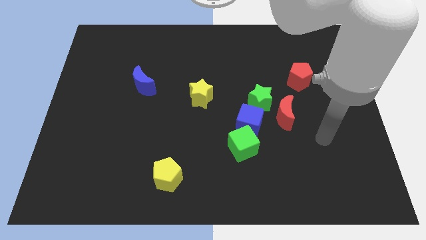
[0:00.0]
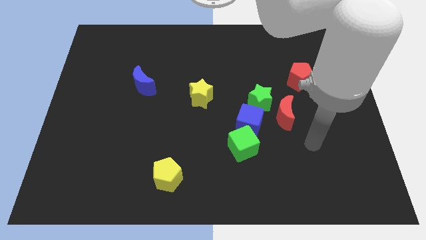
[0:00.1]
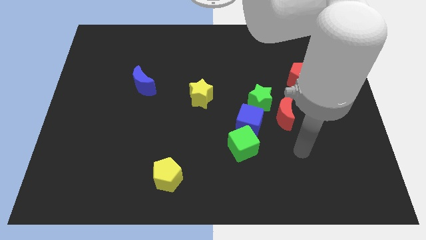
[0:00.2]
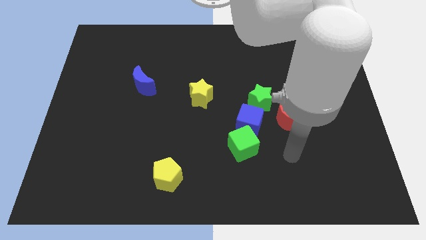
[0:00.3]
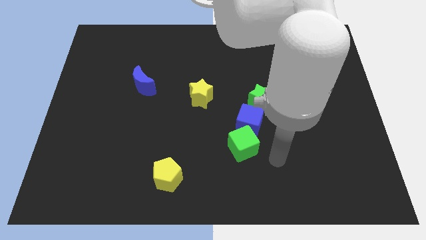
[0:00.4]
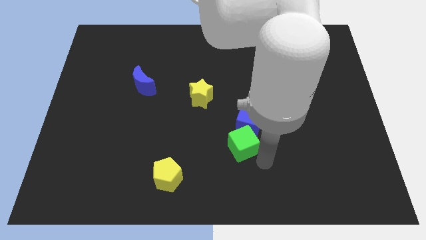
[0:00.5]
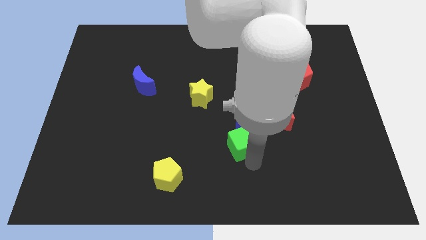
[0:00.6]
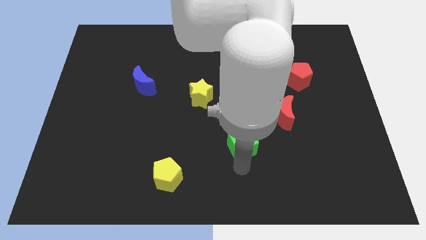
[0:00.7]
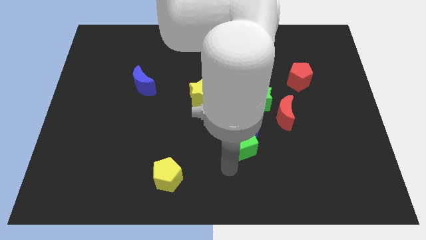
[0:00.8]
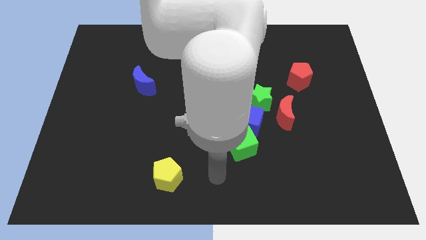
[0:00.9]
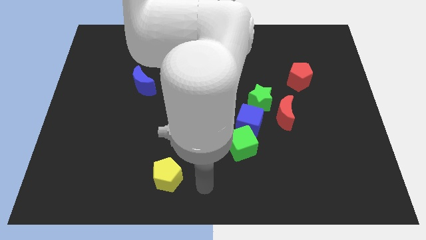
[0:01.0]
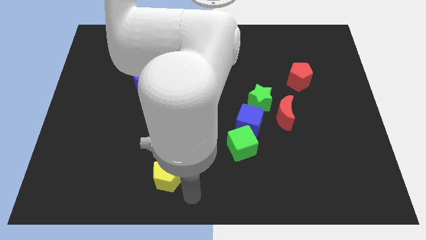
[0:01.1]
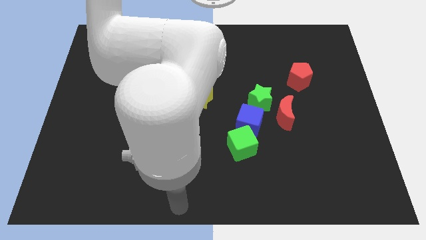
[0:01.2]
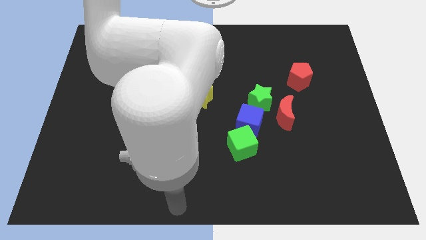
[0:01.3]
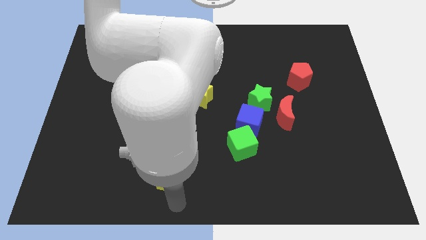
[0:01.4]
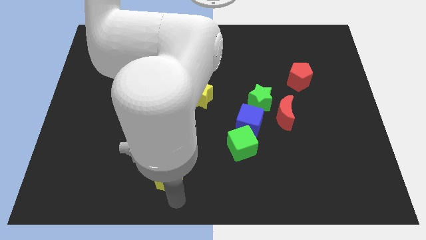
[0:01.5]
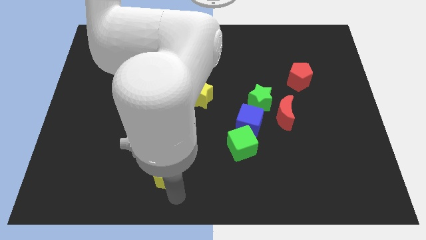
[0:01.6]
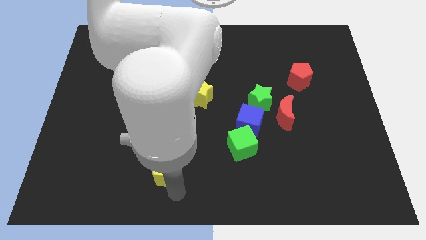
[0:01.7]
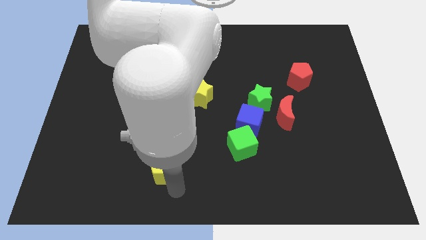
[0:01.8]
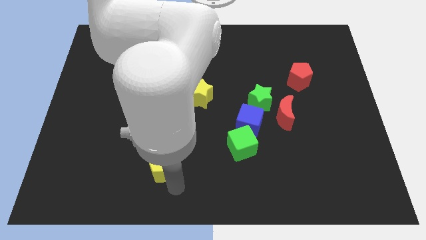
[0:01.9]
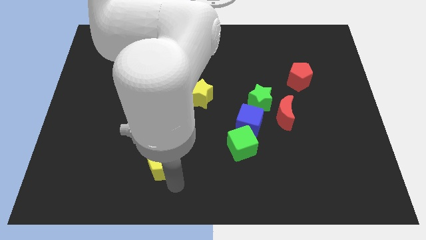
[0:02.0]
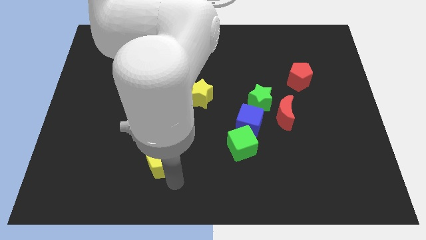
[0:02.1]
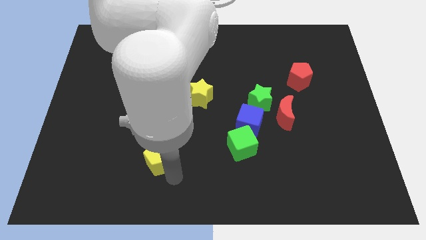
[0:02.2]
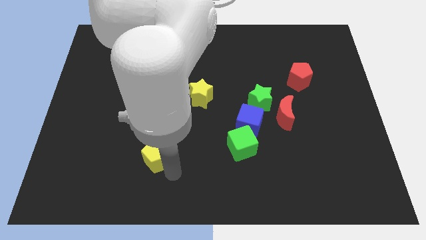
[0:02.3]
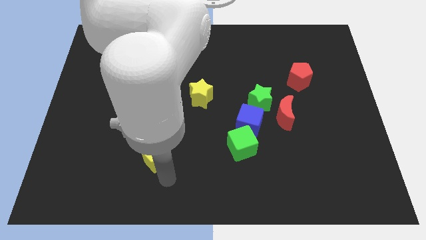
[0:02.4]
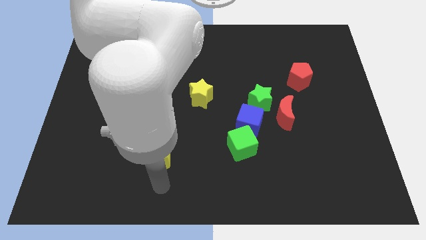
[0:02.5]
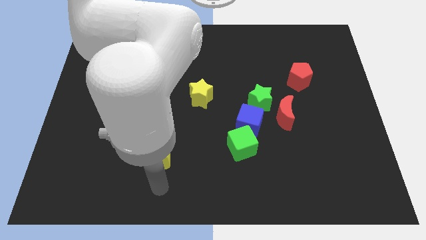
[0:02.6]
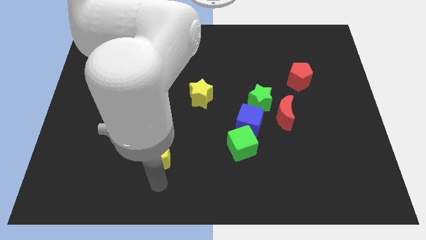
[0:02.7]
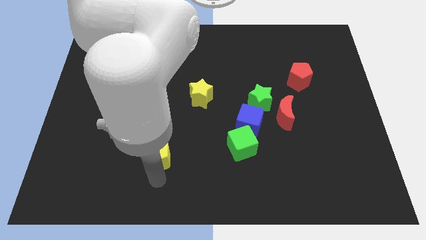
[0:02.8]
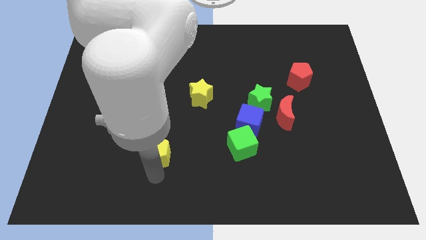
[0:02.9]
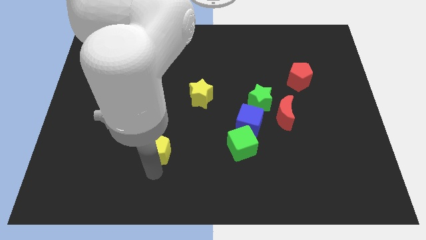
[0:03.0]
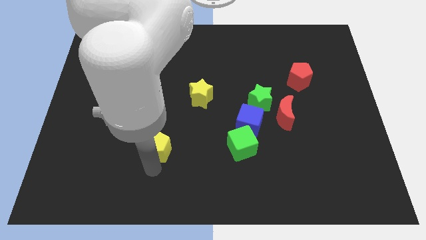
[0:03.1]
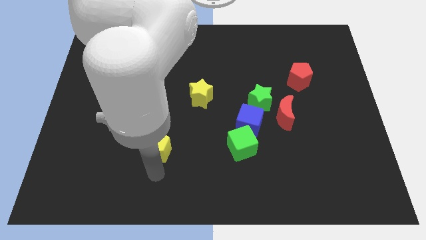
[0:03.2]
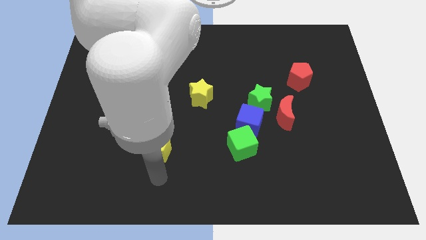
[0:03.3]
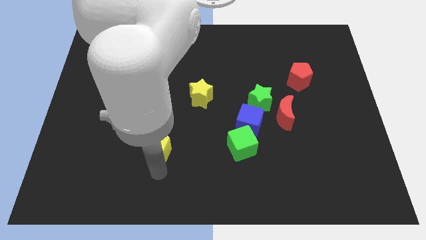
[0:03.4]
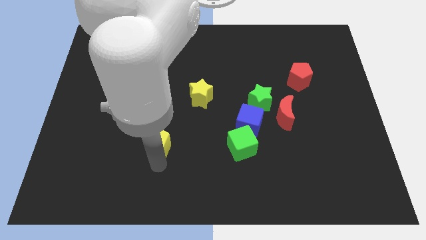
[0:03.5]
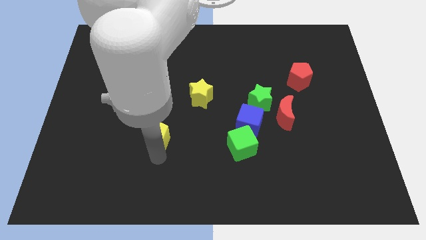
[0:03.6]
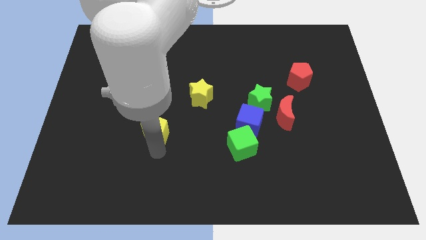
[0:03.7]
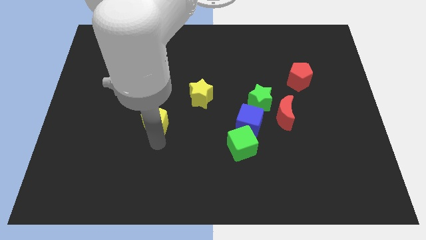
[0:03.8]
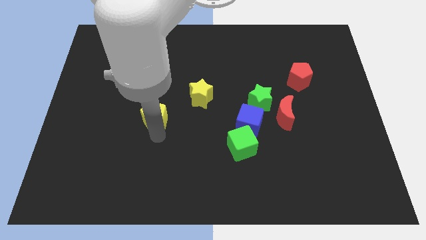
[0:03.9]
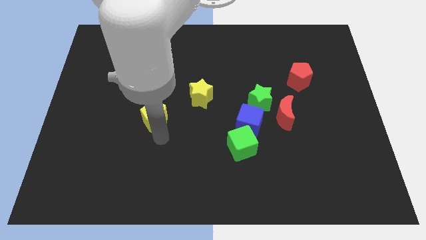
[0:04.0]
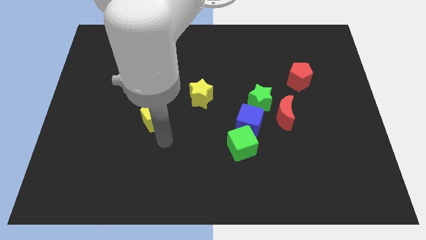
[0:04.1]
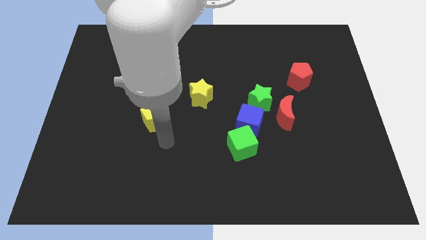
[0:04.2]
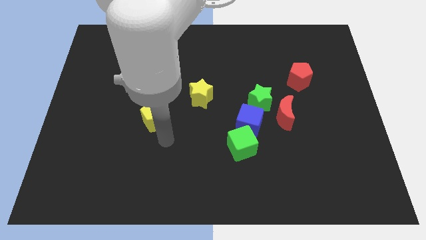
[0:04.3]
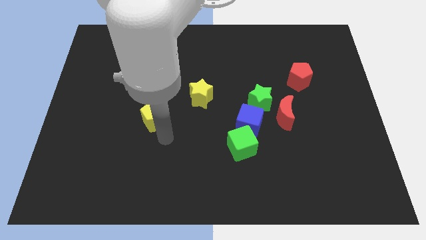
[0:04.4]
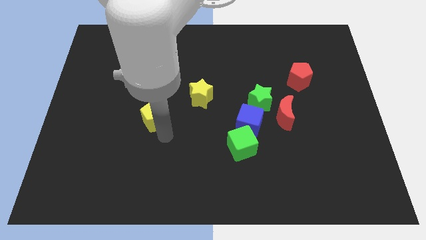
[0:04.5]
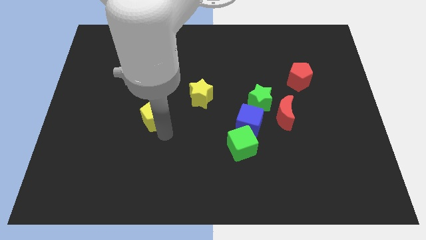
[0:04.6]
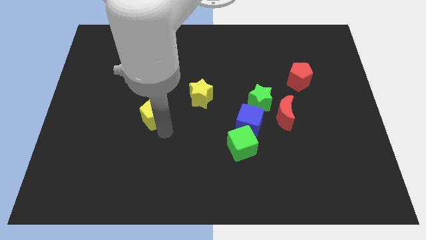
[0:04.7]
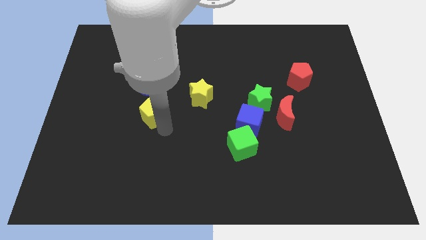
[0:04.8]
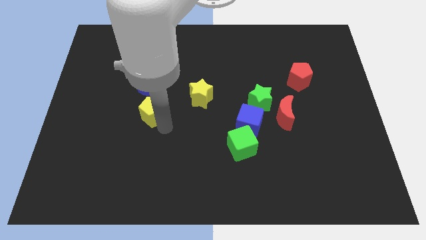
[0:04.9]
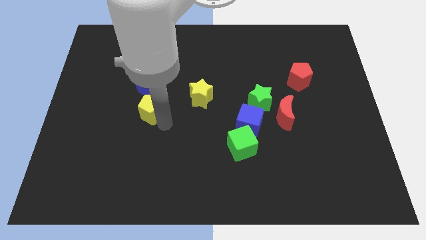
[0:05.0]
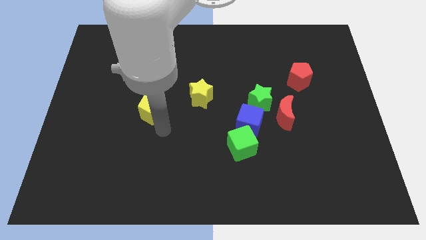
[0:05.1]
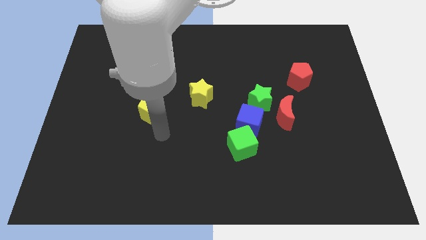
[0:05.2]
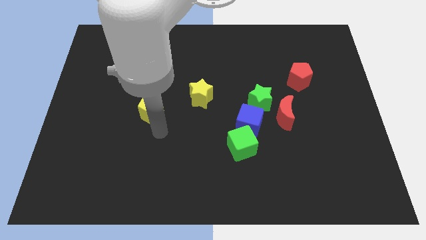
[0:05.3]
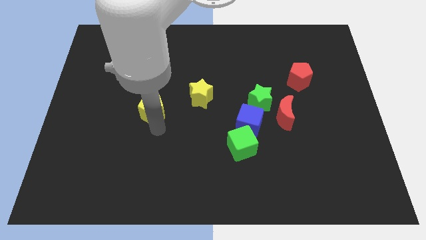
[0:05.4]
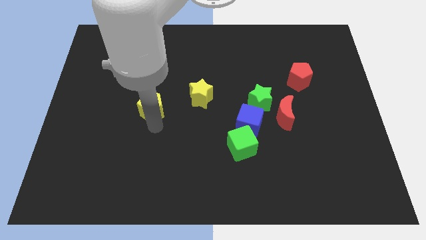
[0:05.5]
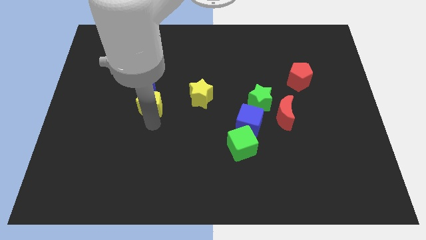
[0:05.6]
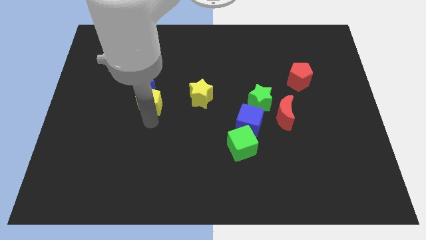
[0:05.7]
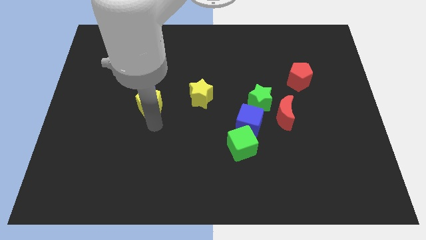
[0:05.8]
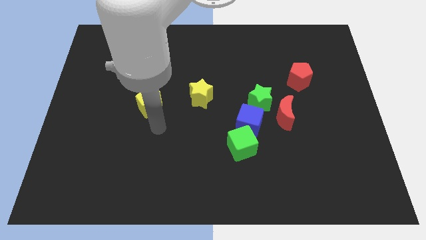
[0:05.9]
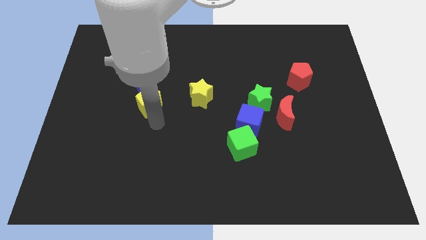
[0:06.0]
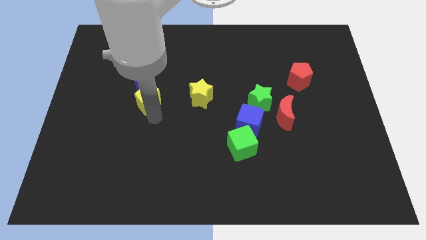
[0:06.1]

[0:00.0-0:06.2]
slide the yellow pentagon towards the blue moon

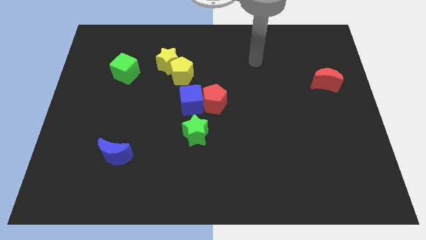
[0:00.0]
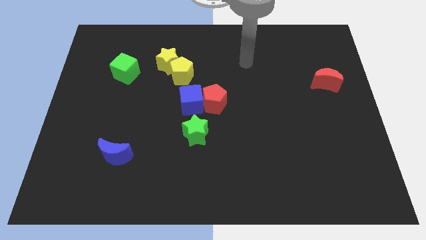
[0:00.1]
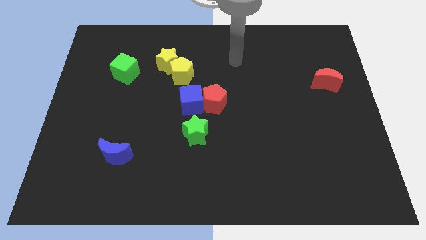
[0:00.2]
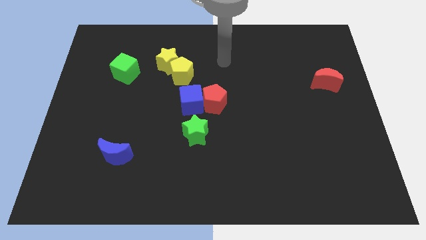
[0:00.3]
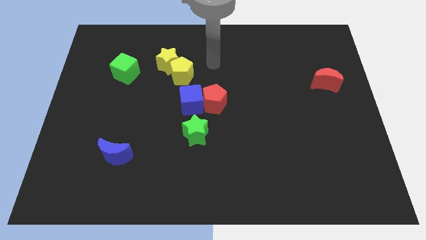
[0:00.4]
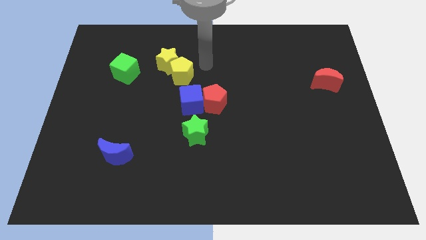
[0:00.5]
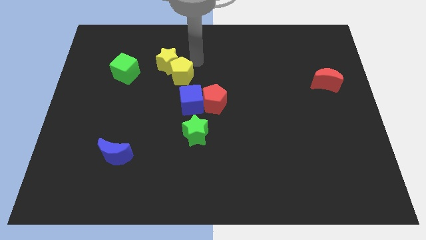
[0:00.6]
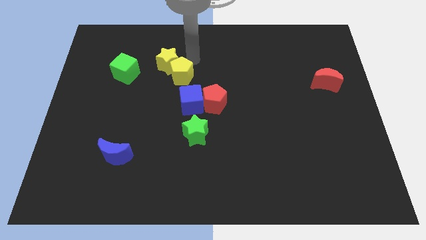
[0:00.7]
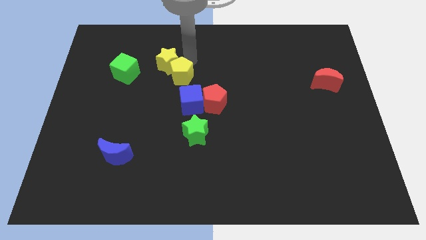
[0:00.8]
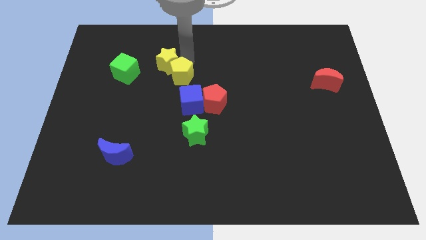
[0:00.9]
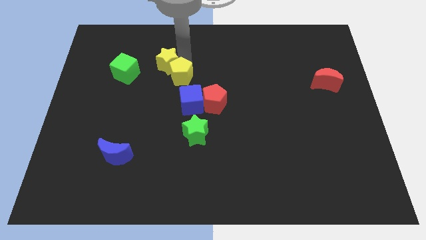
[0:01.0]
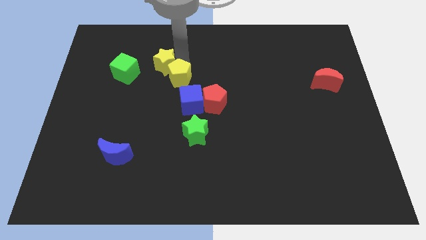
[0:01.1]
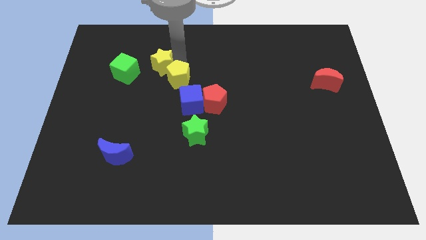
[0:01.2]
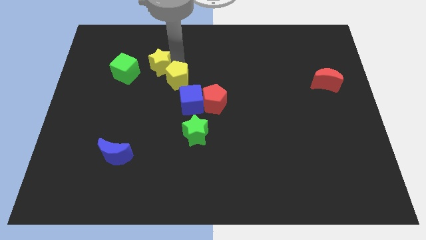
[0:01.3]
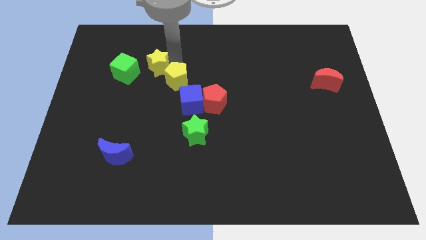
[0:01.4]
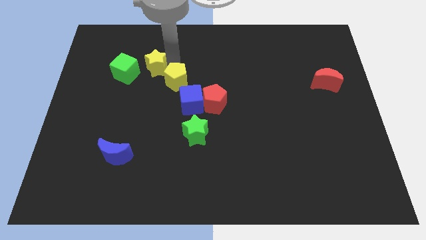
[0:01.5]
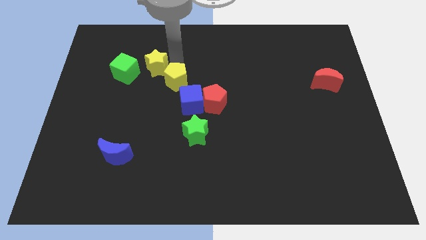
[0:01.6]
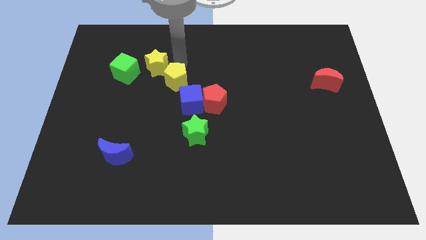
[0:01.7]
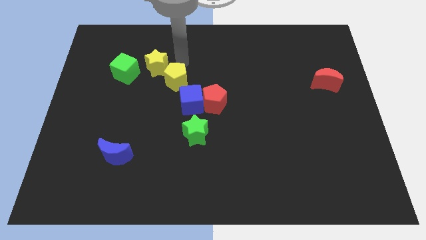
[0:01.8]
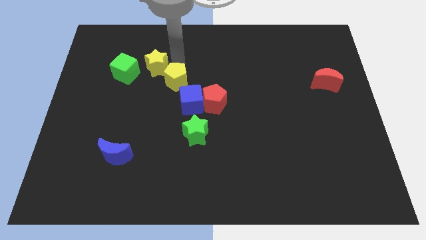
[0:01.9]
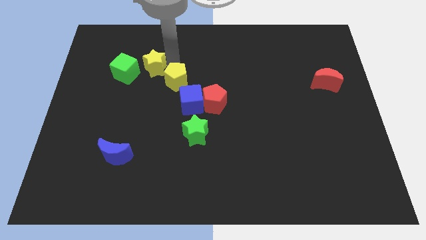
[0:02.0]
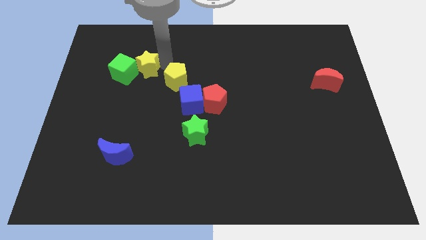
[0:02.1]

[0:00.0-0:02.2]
put the yellow star next to the green cube
